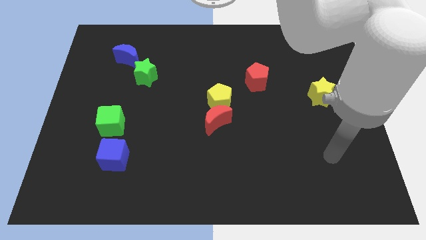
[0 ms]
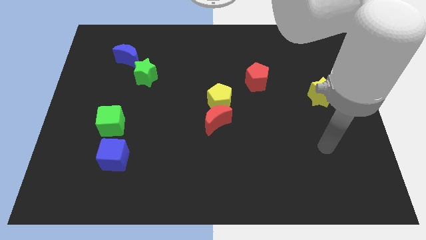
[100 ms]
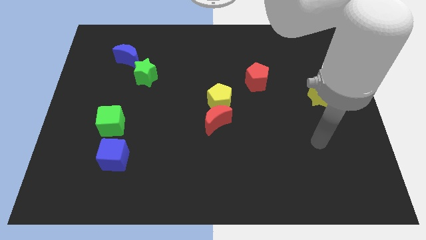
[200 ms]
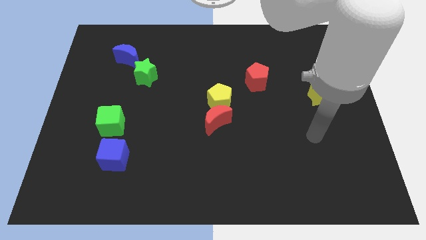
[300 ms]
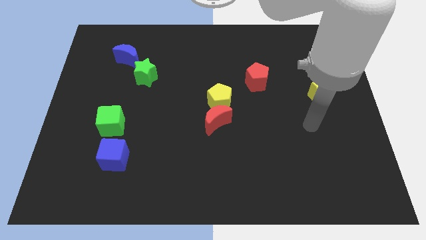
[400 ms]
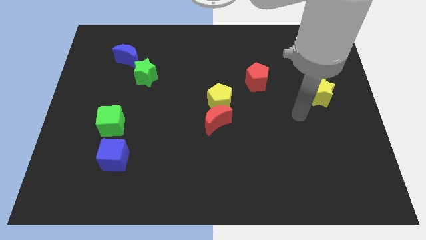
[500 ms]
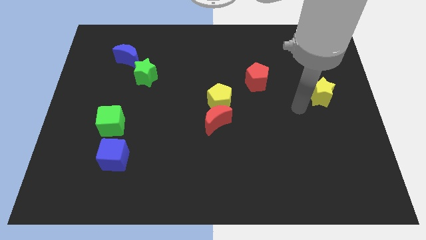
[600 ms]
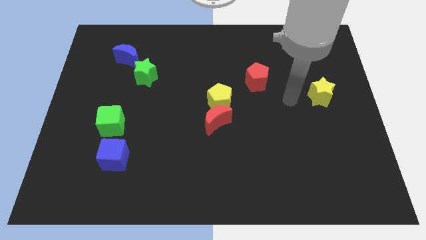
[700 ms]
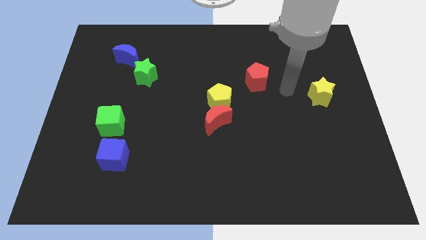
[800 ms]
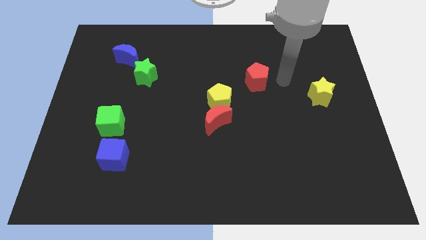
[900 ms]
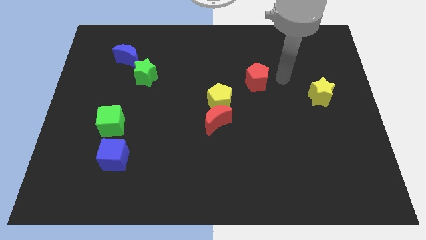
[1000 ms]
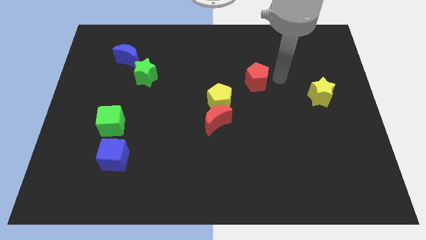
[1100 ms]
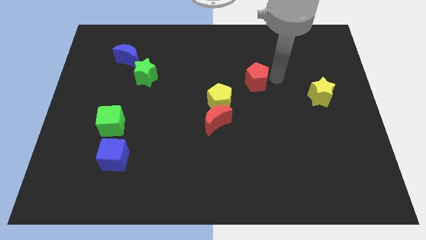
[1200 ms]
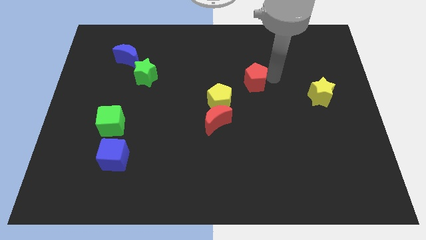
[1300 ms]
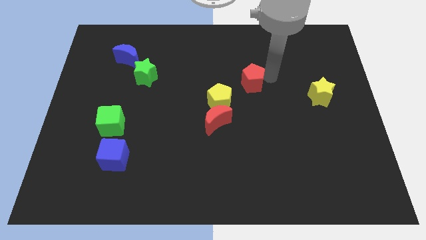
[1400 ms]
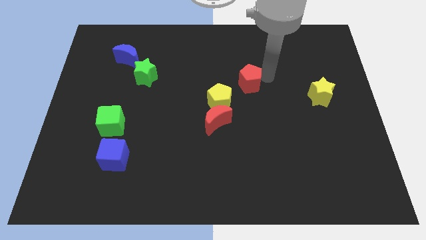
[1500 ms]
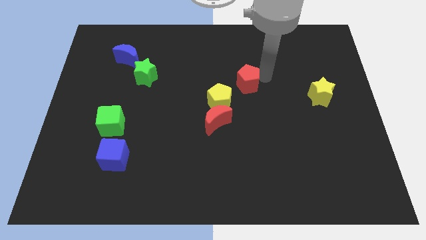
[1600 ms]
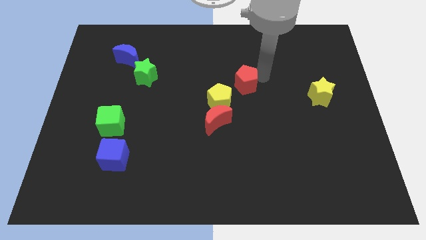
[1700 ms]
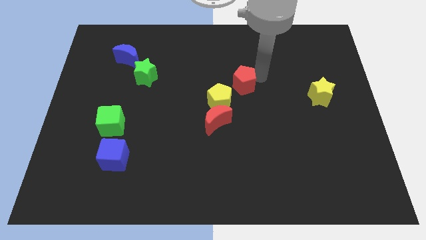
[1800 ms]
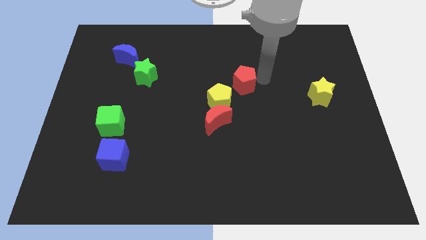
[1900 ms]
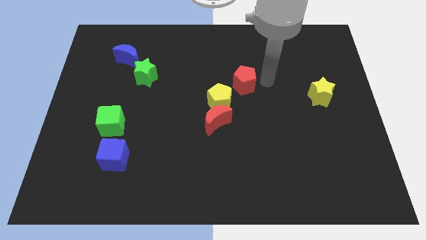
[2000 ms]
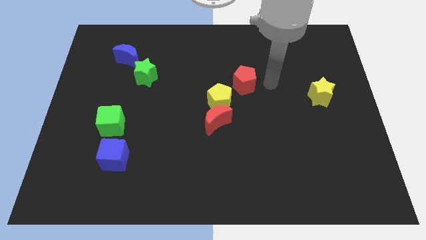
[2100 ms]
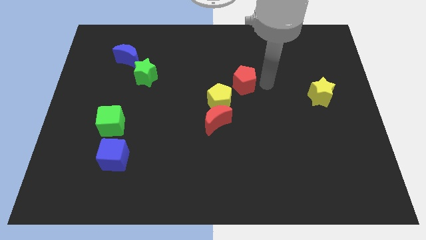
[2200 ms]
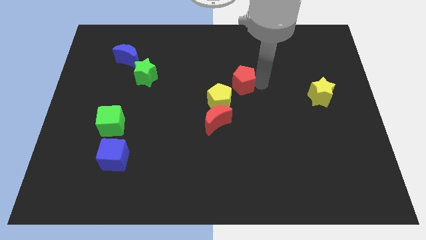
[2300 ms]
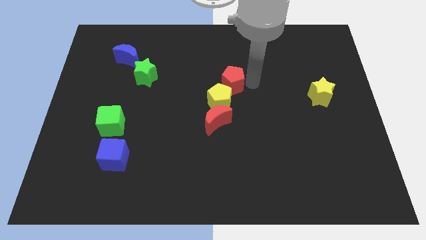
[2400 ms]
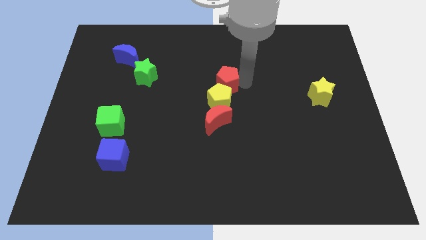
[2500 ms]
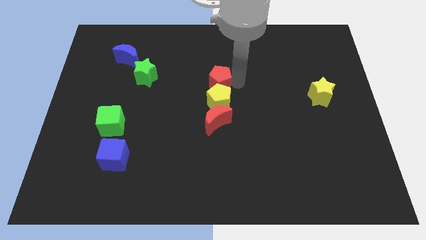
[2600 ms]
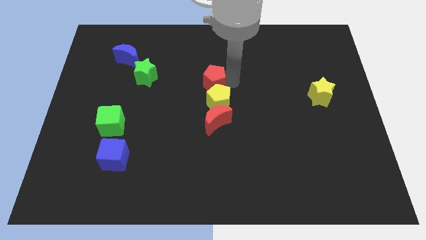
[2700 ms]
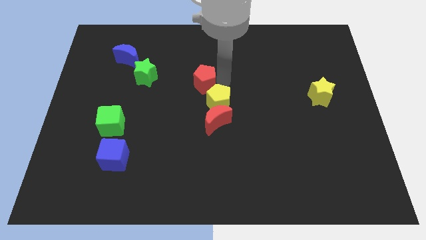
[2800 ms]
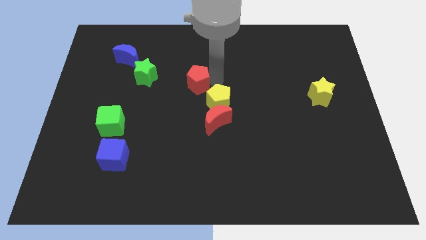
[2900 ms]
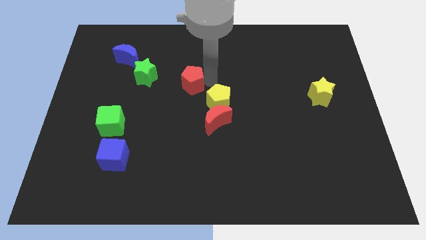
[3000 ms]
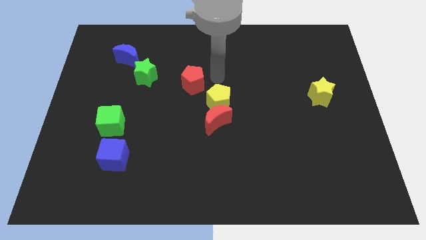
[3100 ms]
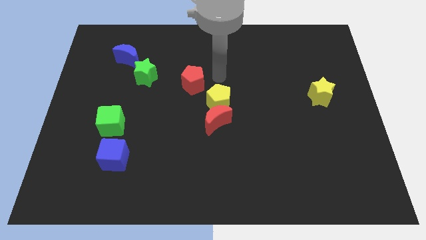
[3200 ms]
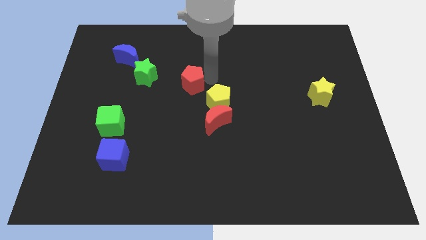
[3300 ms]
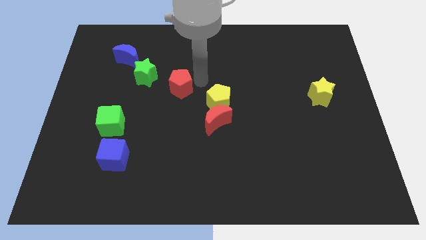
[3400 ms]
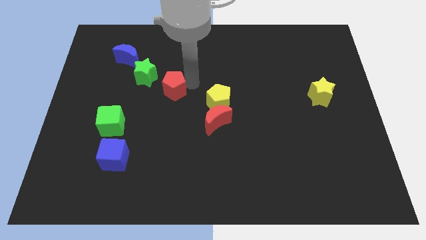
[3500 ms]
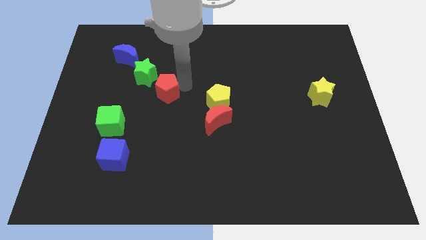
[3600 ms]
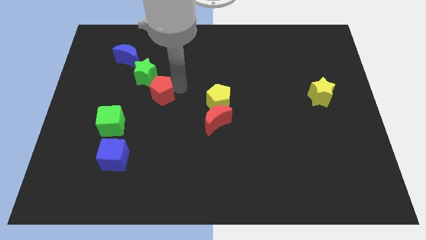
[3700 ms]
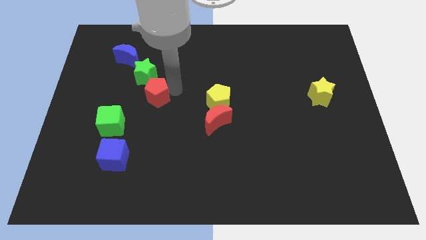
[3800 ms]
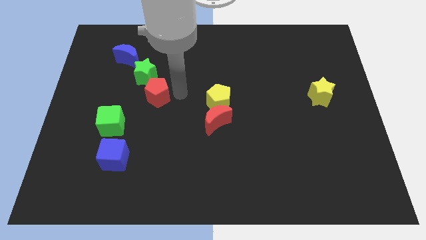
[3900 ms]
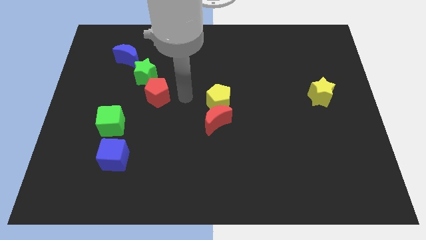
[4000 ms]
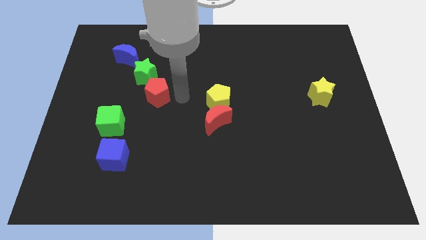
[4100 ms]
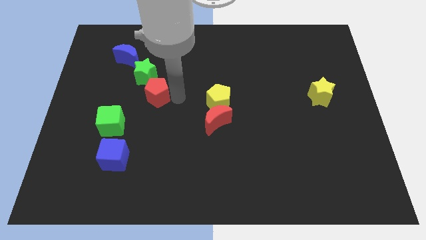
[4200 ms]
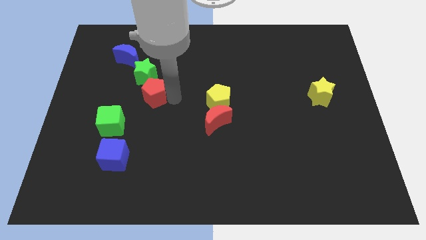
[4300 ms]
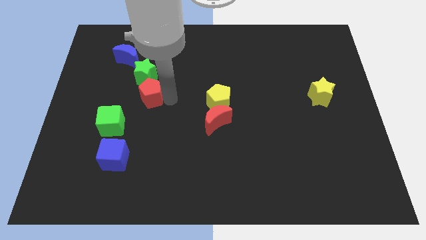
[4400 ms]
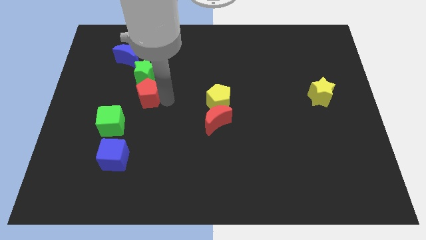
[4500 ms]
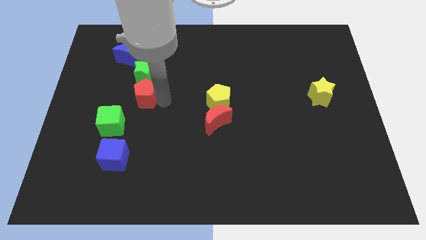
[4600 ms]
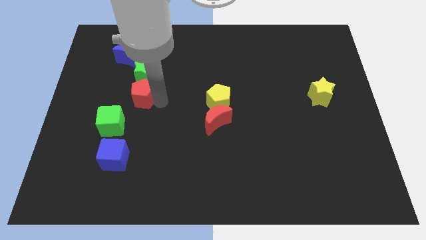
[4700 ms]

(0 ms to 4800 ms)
slide the red pentagon to the bottom left side of the green star

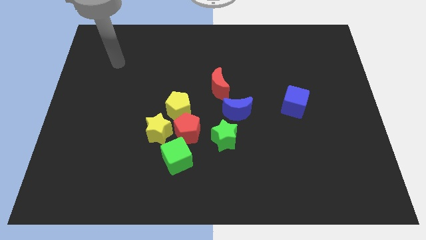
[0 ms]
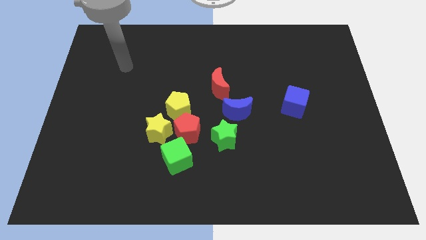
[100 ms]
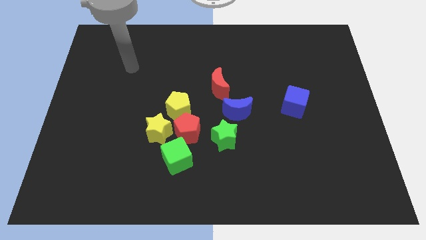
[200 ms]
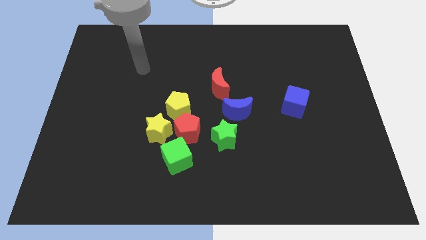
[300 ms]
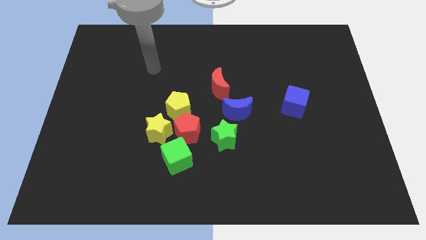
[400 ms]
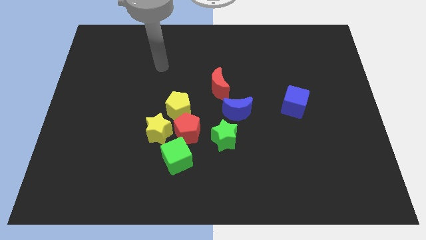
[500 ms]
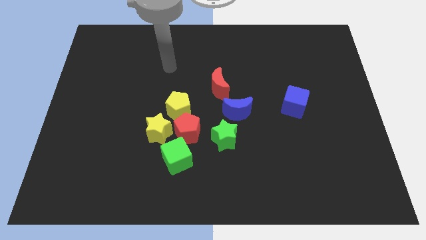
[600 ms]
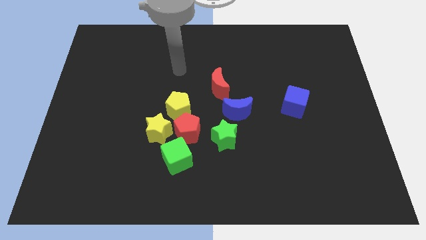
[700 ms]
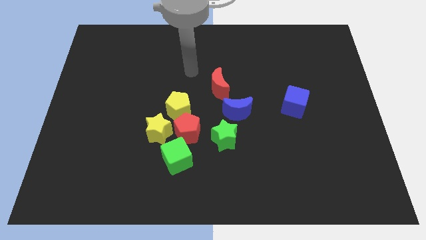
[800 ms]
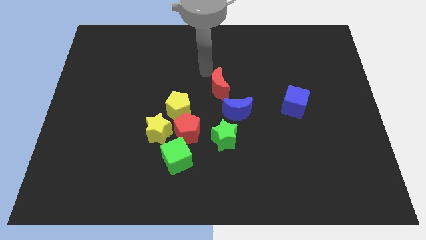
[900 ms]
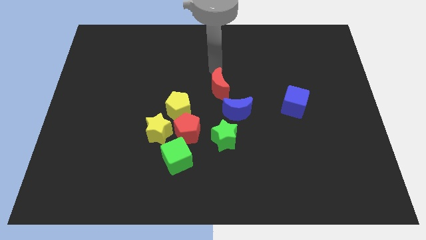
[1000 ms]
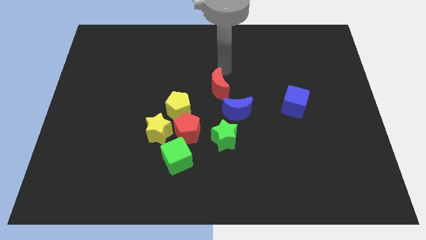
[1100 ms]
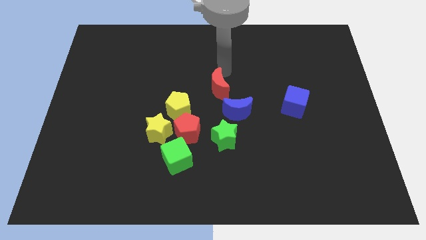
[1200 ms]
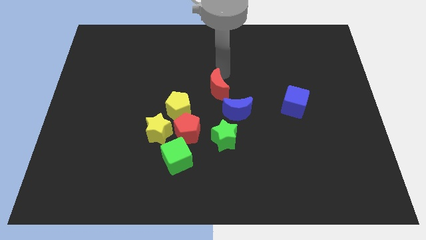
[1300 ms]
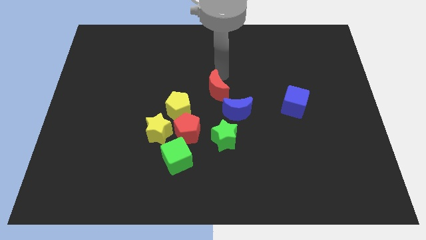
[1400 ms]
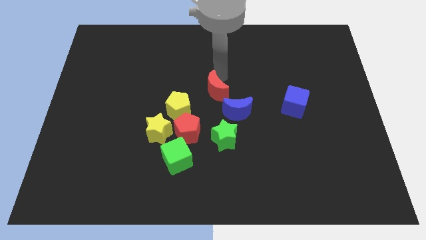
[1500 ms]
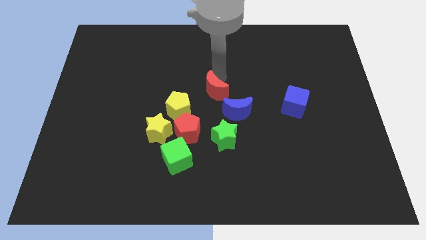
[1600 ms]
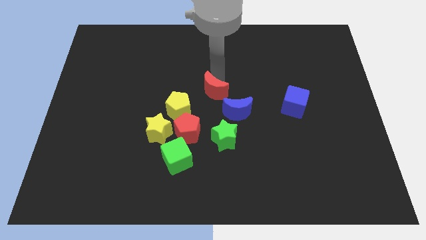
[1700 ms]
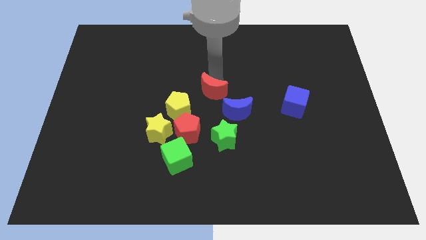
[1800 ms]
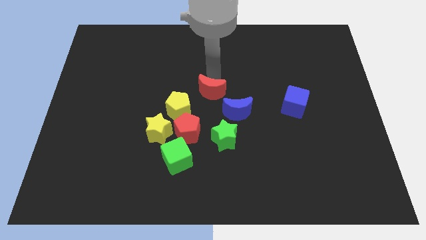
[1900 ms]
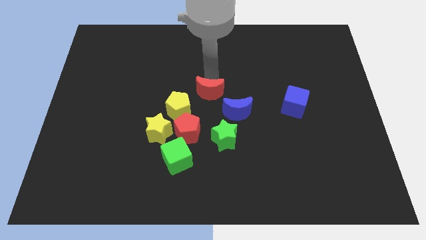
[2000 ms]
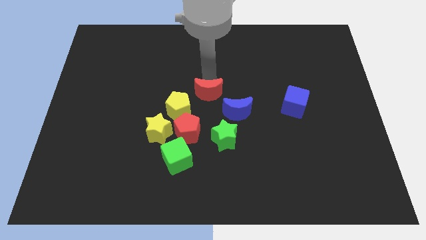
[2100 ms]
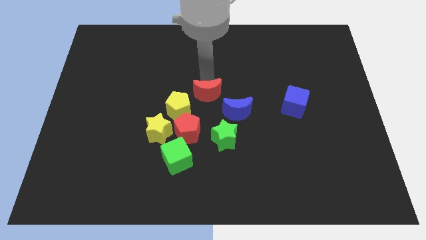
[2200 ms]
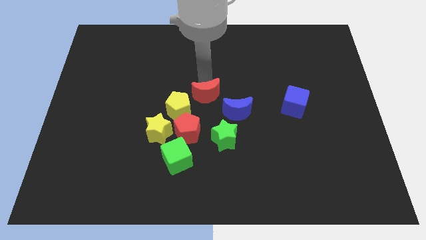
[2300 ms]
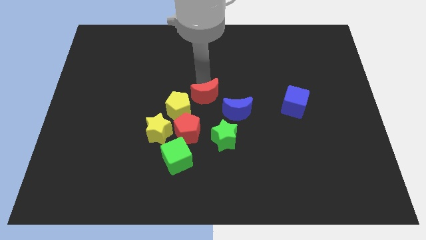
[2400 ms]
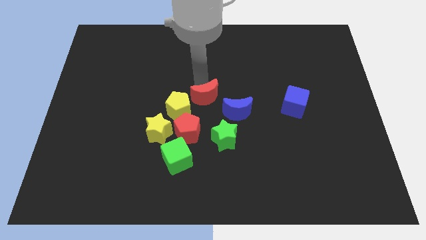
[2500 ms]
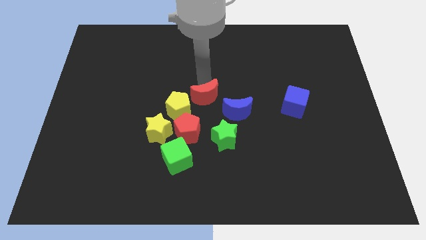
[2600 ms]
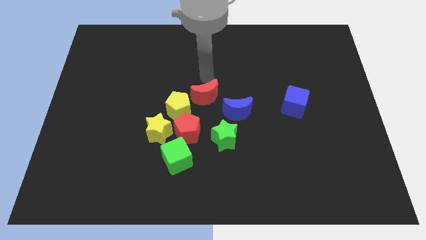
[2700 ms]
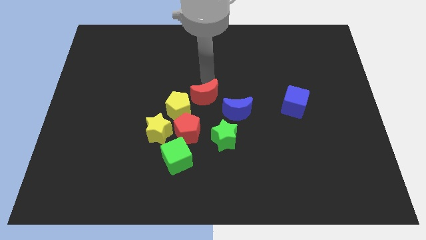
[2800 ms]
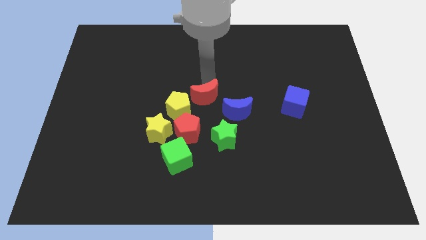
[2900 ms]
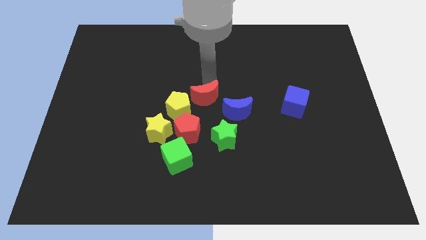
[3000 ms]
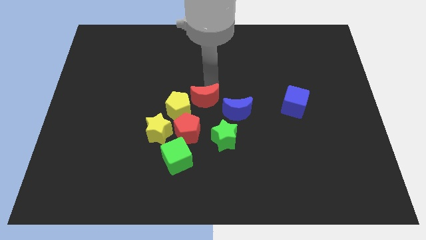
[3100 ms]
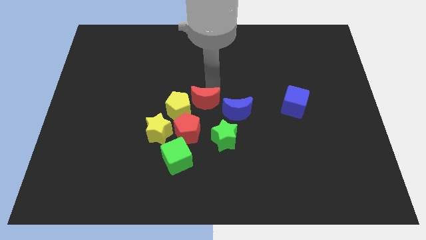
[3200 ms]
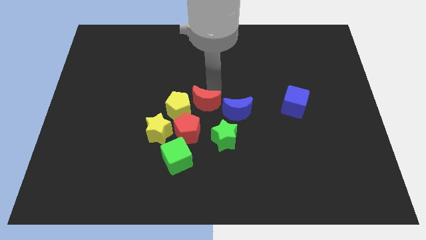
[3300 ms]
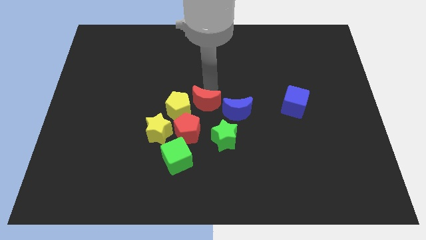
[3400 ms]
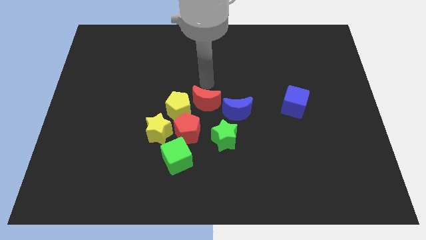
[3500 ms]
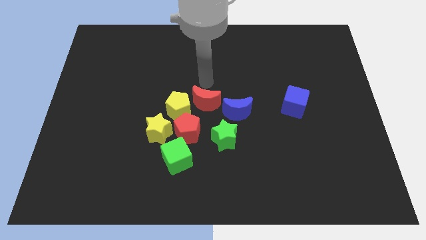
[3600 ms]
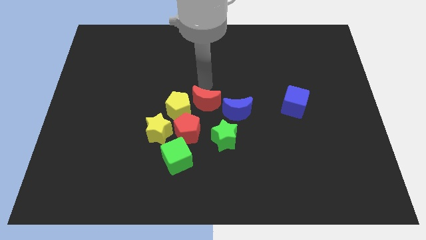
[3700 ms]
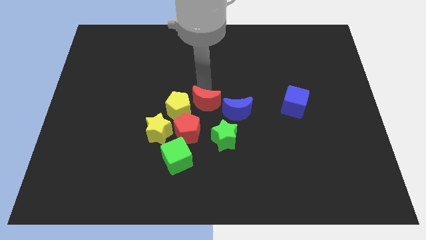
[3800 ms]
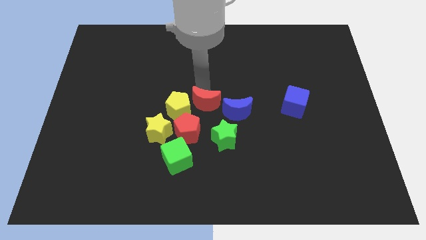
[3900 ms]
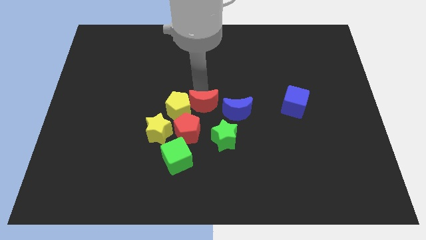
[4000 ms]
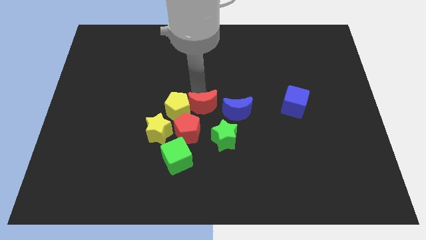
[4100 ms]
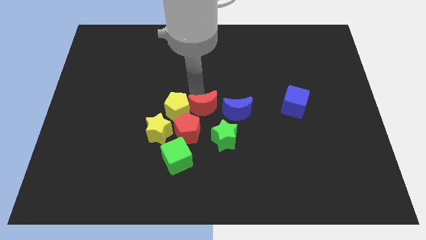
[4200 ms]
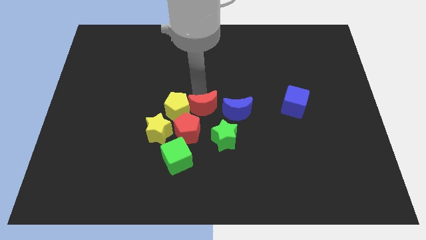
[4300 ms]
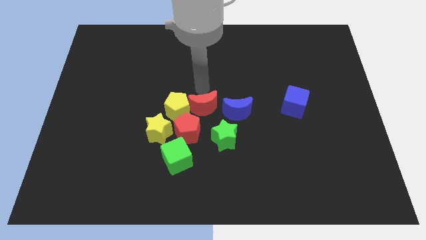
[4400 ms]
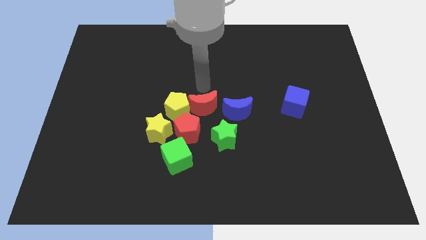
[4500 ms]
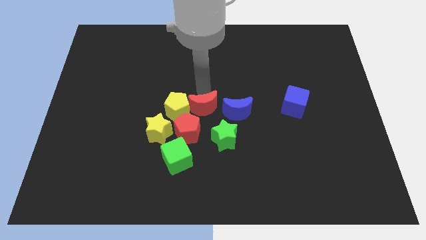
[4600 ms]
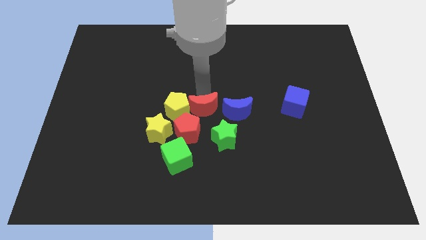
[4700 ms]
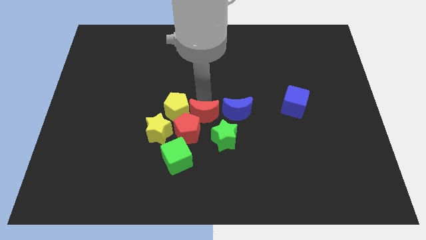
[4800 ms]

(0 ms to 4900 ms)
move the red moon to the right of the yellow star
